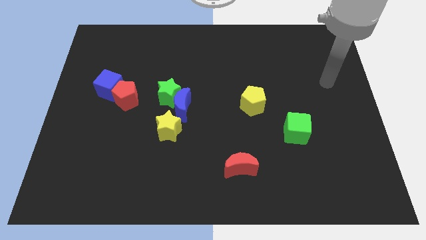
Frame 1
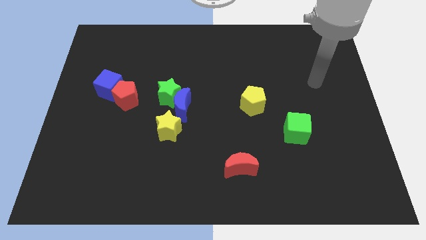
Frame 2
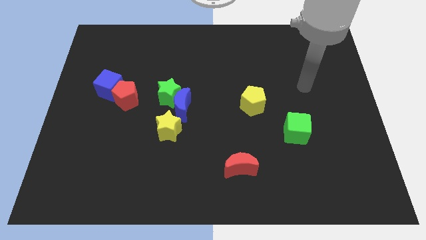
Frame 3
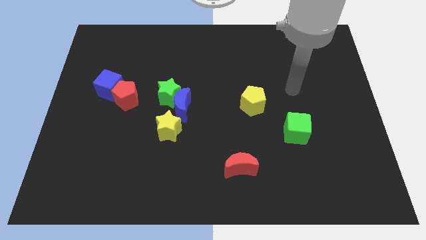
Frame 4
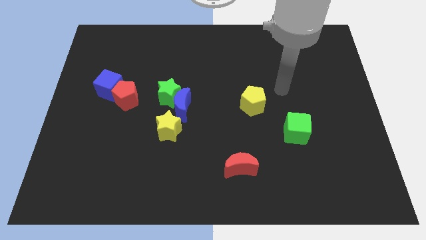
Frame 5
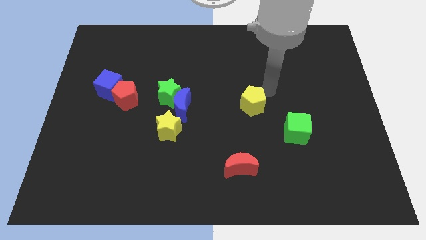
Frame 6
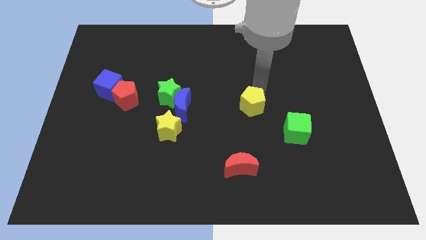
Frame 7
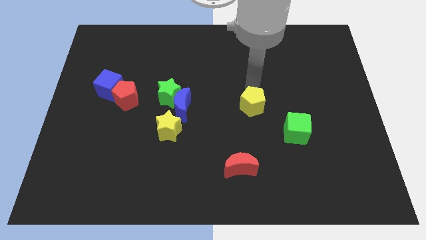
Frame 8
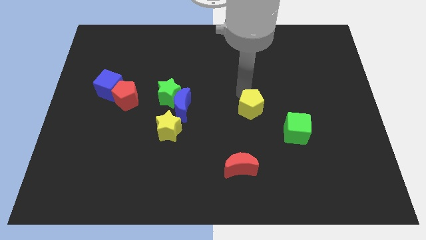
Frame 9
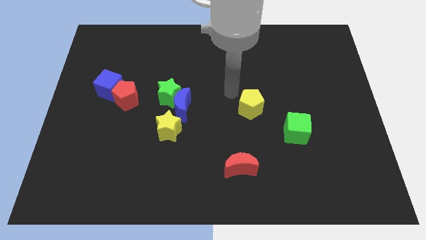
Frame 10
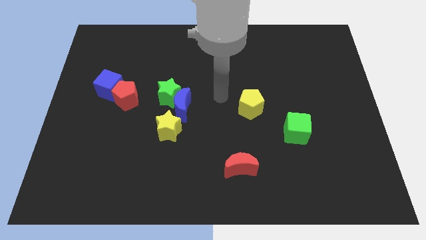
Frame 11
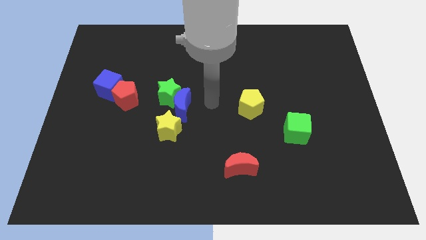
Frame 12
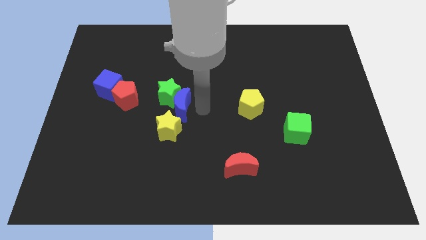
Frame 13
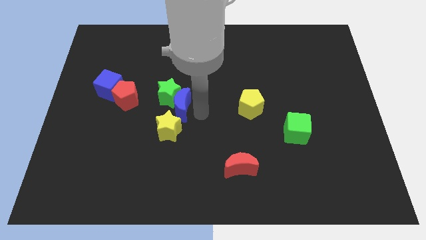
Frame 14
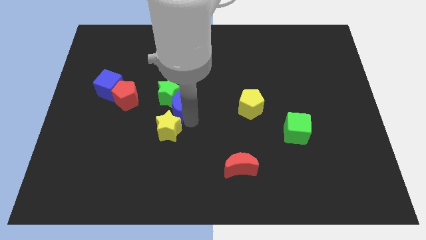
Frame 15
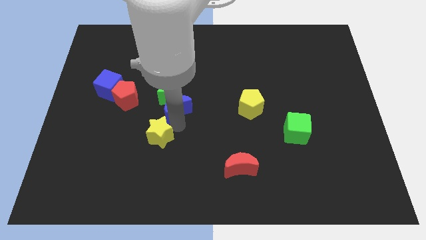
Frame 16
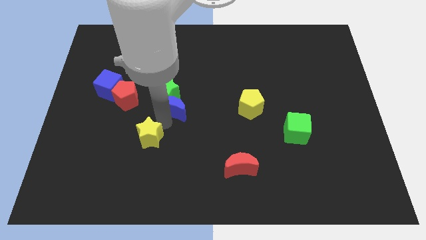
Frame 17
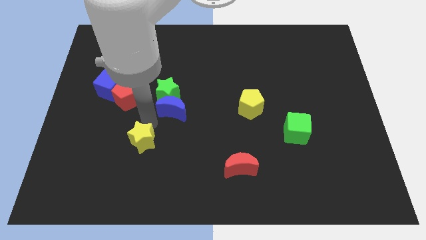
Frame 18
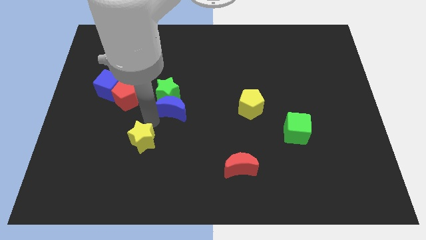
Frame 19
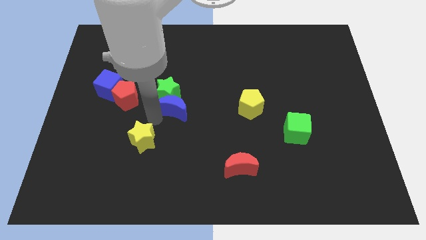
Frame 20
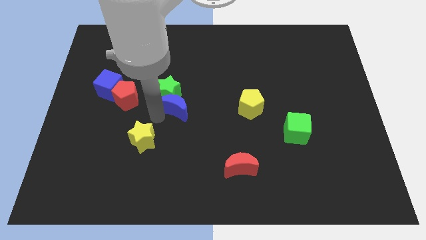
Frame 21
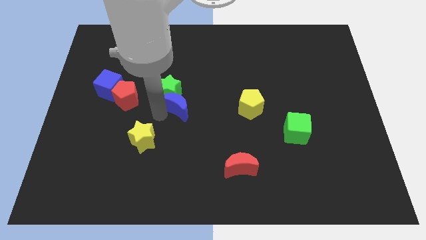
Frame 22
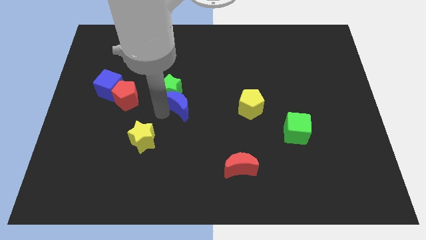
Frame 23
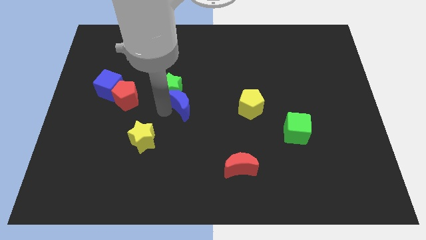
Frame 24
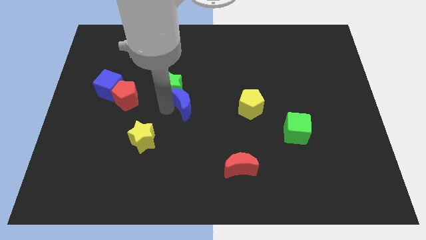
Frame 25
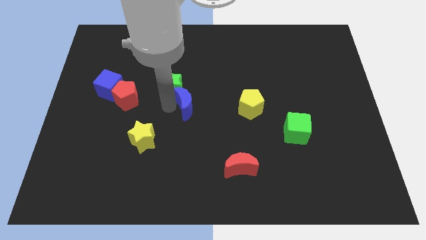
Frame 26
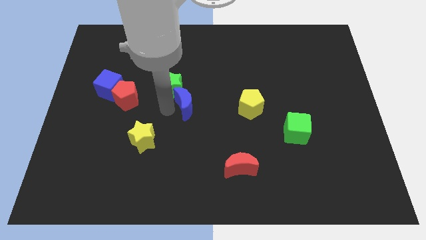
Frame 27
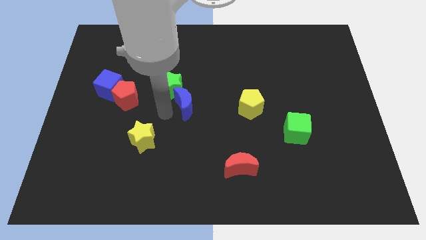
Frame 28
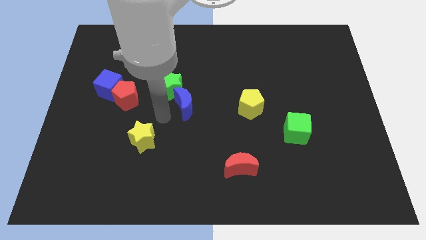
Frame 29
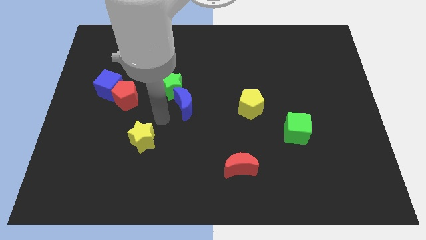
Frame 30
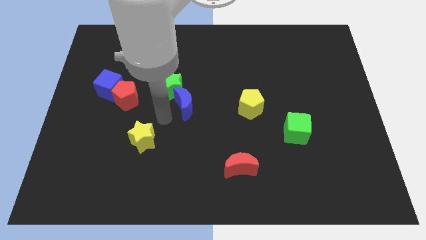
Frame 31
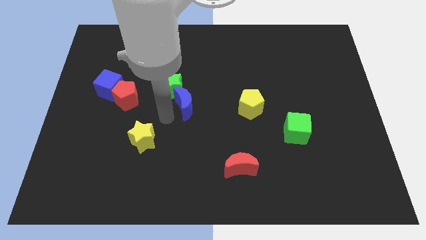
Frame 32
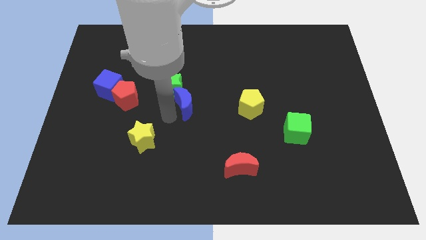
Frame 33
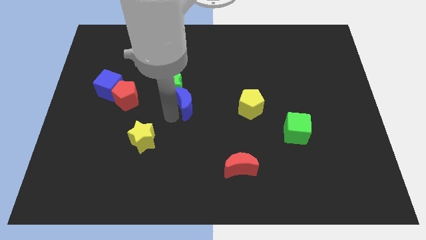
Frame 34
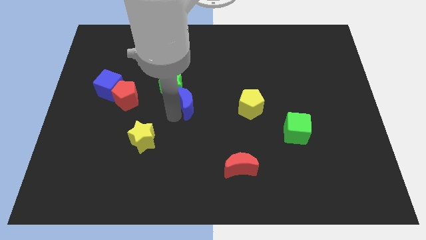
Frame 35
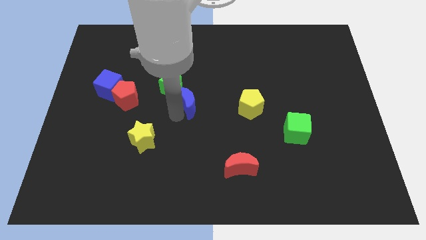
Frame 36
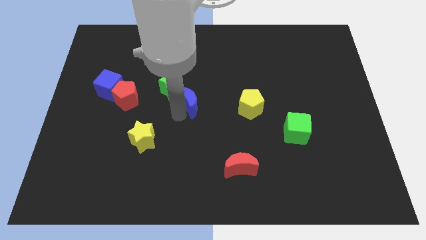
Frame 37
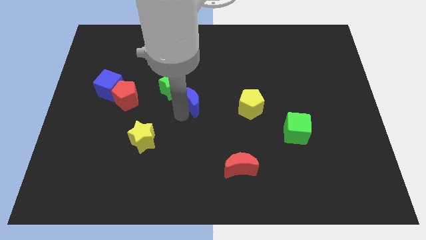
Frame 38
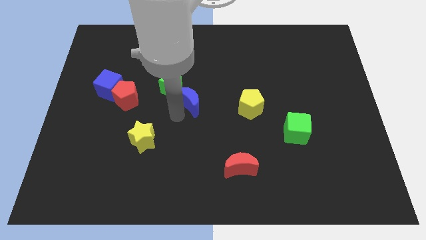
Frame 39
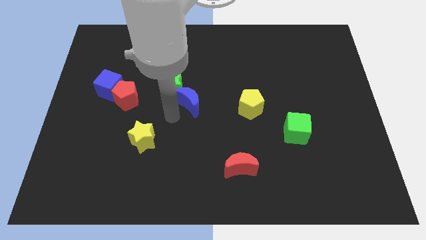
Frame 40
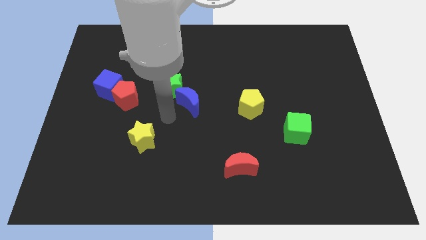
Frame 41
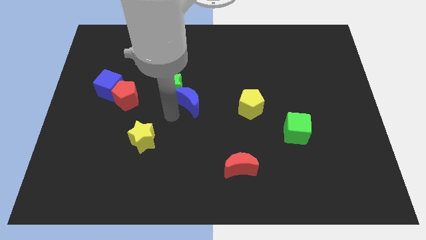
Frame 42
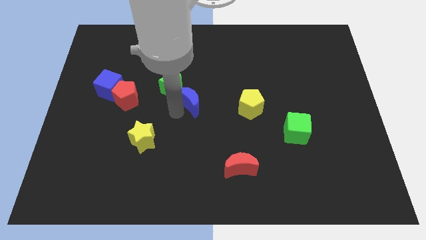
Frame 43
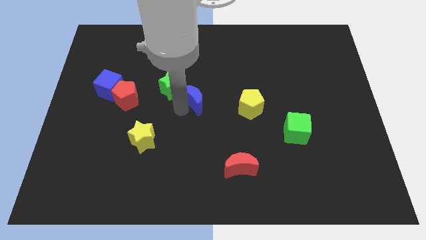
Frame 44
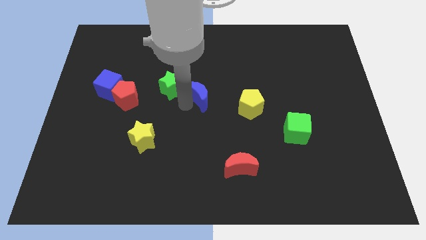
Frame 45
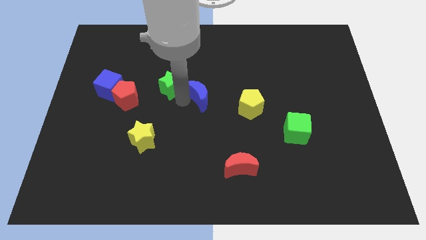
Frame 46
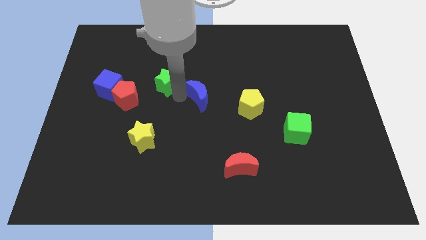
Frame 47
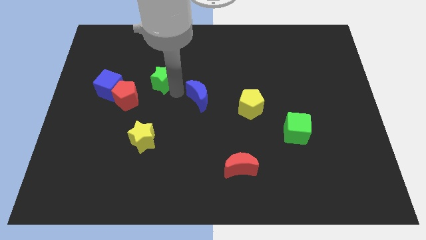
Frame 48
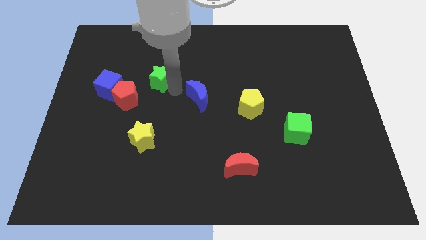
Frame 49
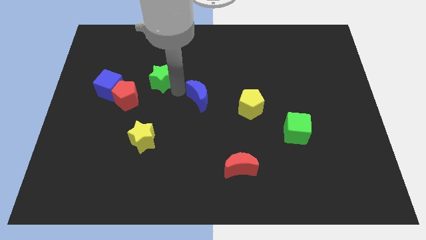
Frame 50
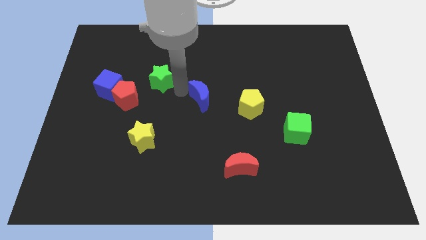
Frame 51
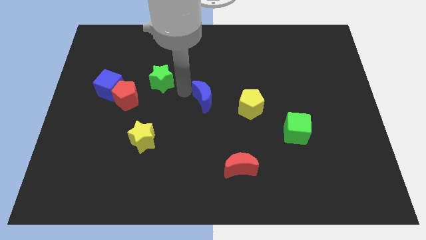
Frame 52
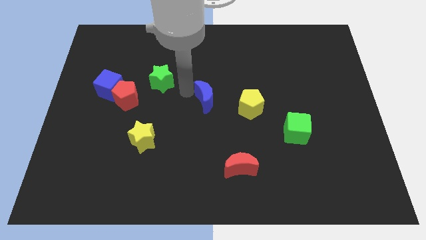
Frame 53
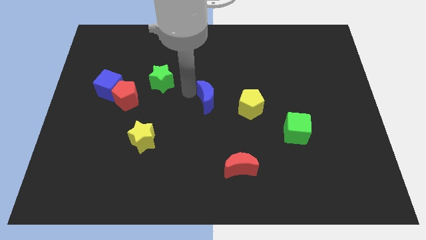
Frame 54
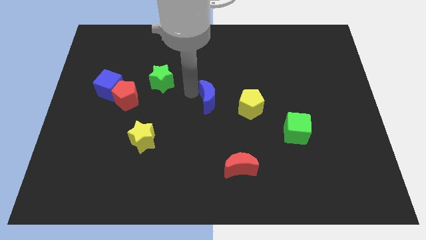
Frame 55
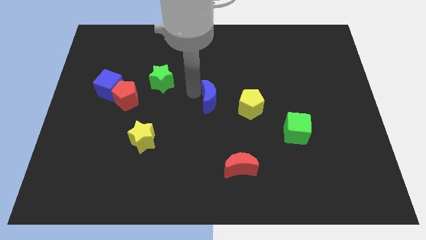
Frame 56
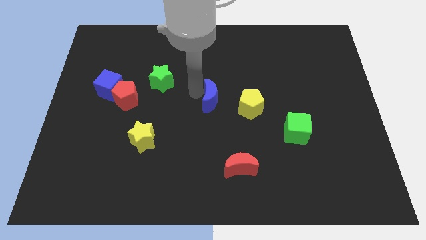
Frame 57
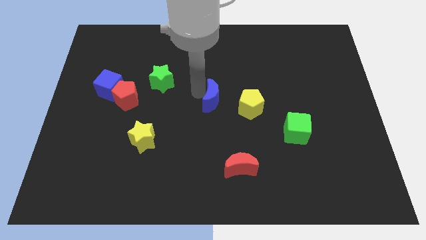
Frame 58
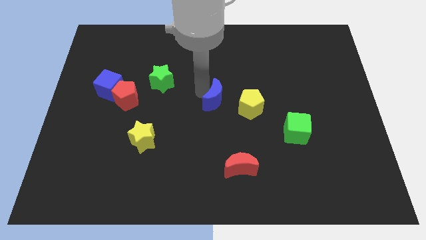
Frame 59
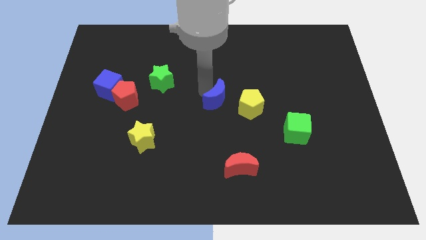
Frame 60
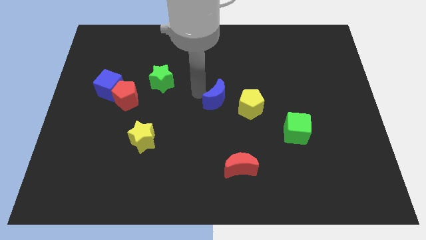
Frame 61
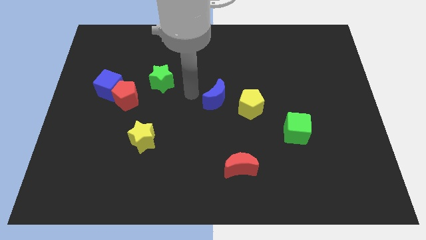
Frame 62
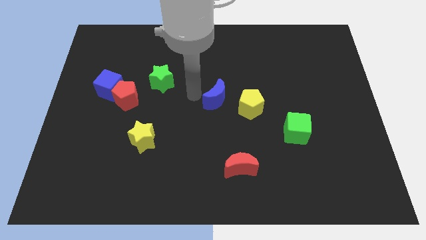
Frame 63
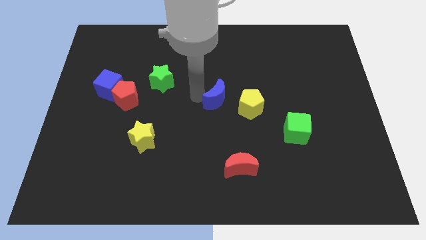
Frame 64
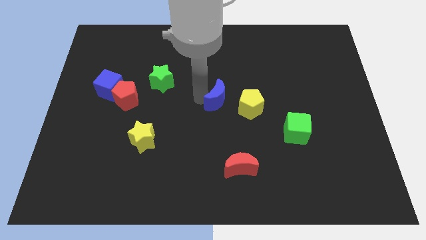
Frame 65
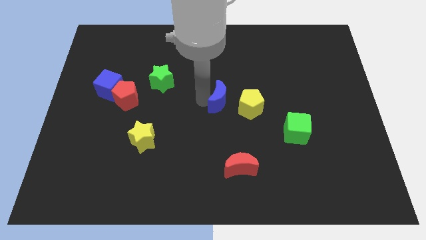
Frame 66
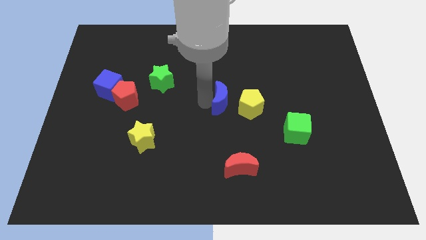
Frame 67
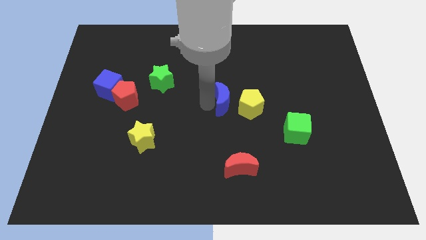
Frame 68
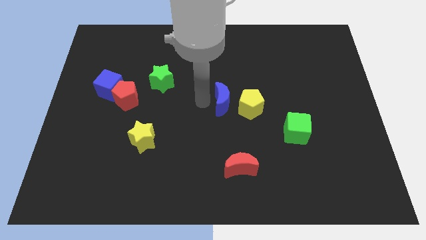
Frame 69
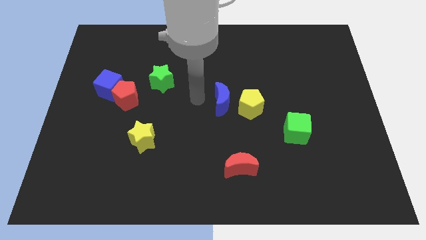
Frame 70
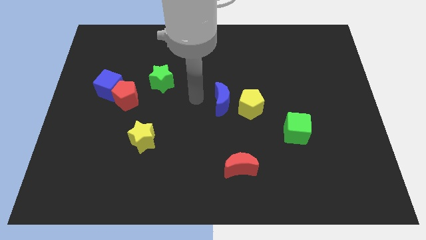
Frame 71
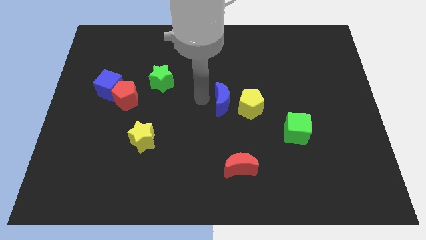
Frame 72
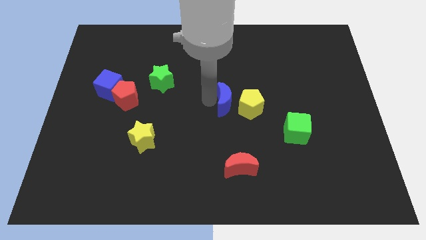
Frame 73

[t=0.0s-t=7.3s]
slide the blue moon to the yellow pentagon

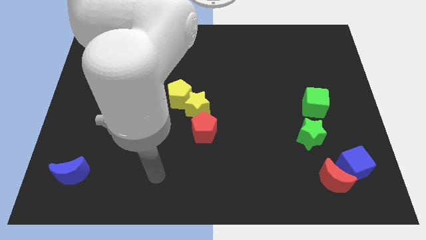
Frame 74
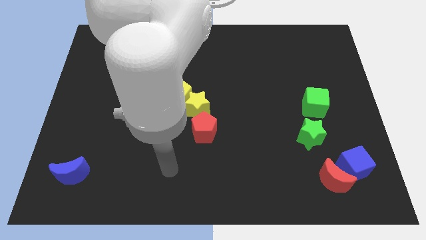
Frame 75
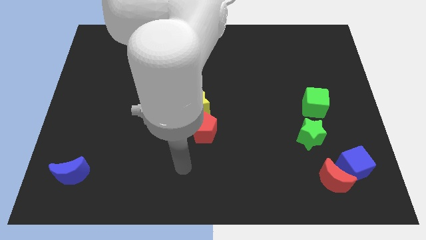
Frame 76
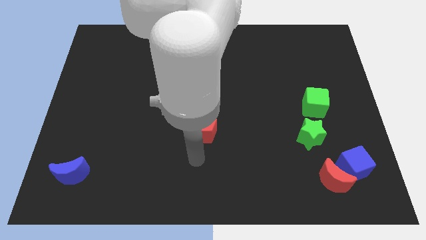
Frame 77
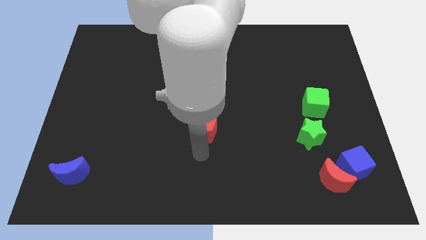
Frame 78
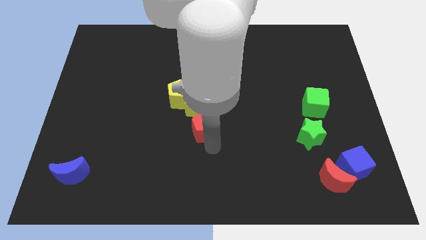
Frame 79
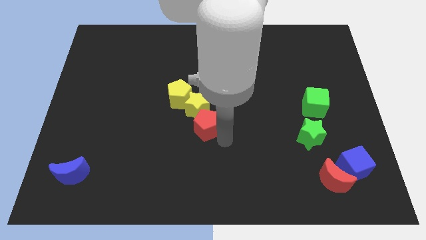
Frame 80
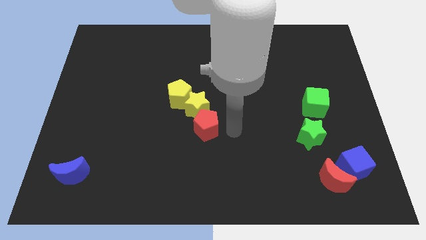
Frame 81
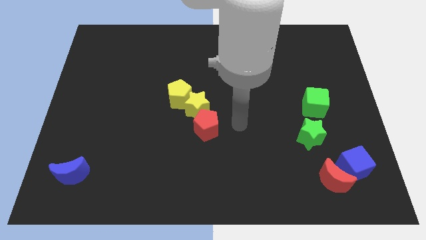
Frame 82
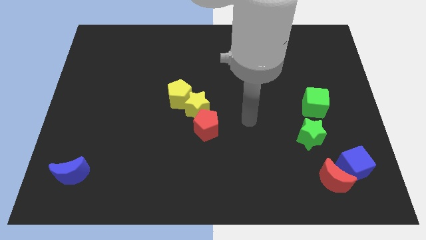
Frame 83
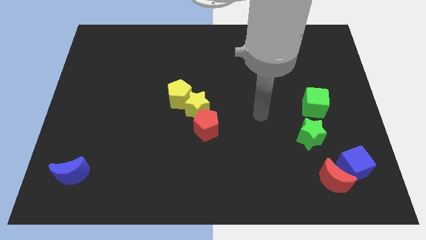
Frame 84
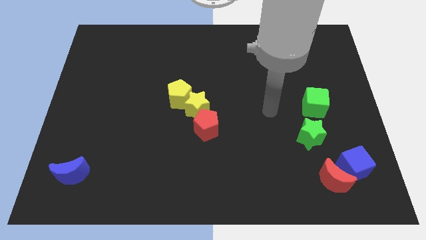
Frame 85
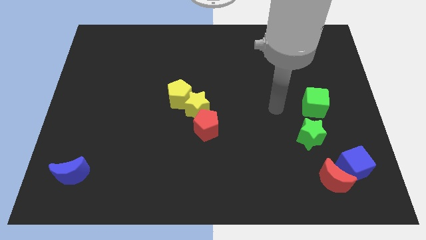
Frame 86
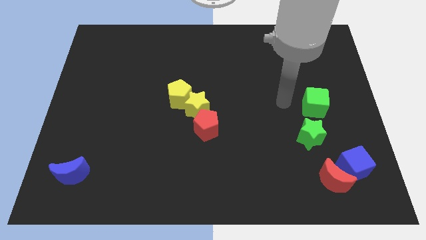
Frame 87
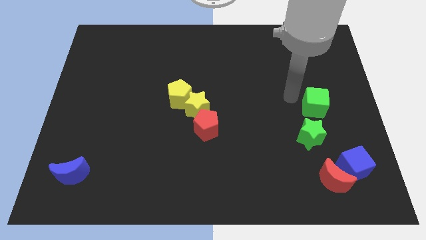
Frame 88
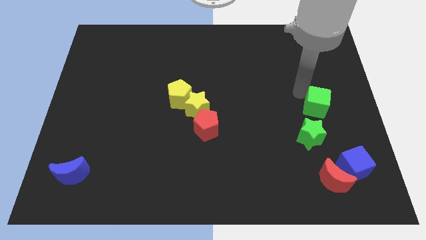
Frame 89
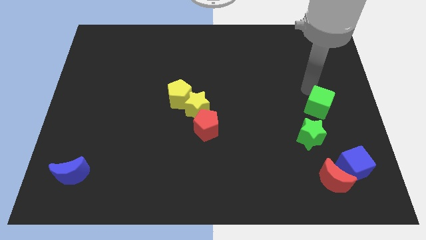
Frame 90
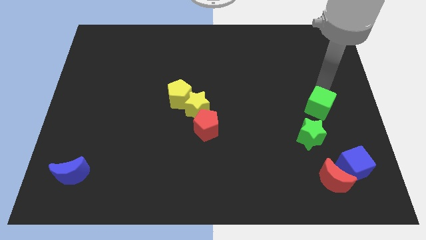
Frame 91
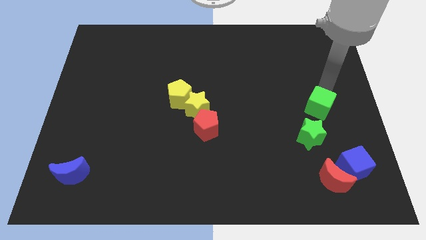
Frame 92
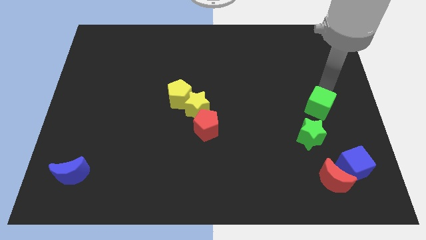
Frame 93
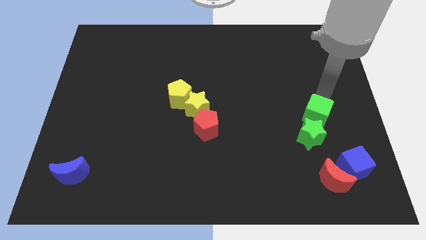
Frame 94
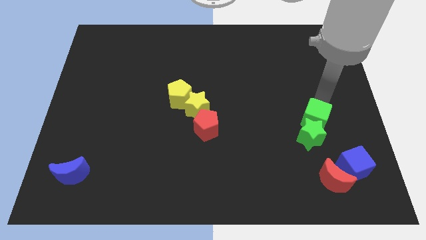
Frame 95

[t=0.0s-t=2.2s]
push the green cube to the green star
